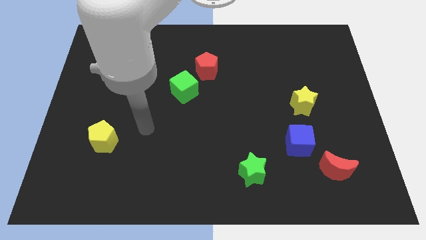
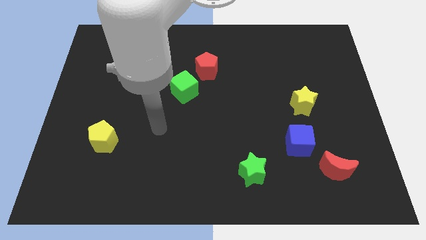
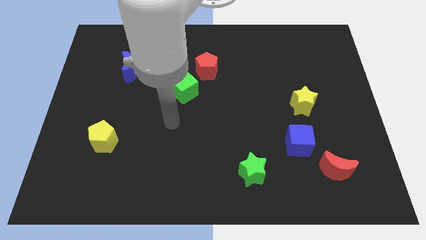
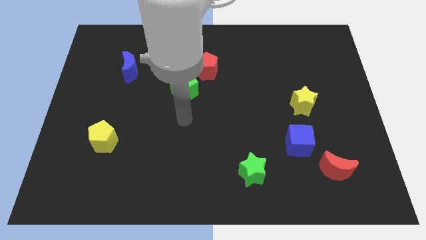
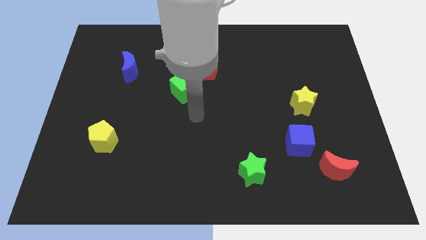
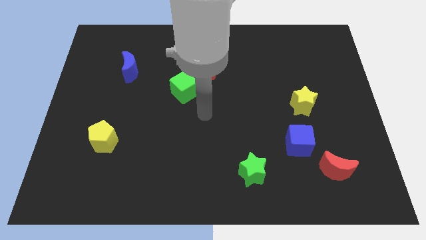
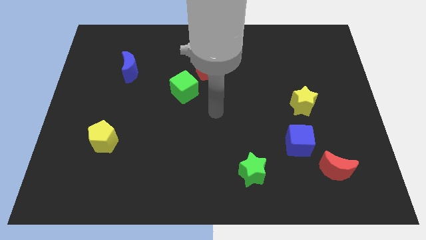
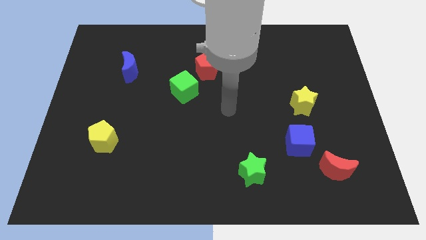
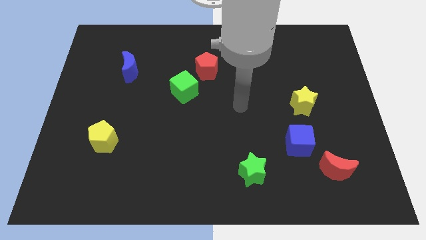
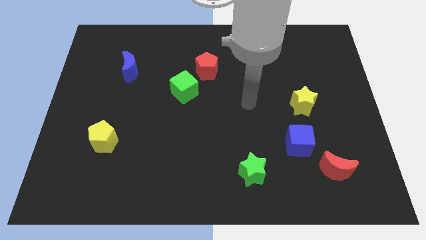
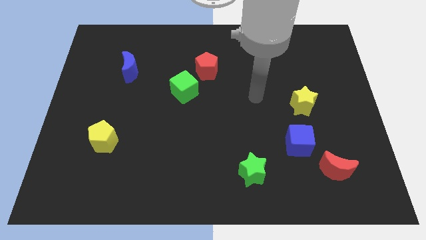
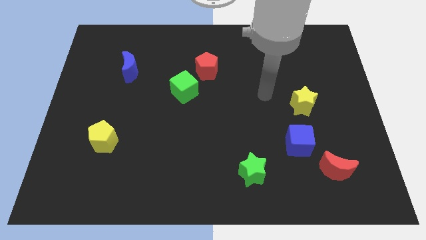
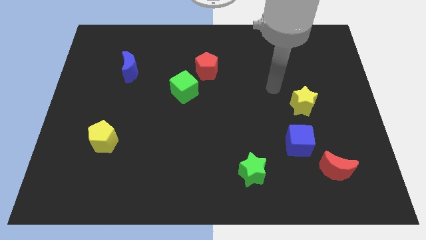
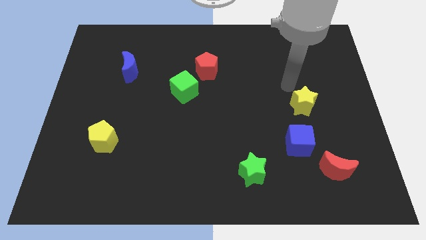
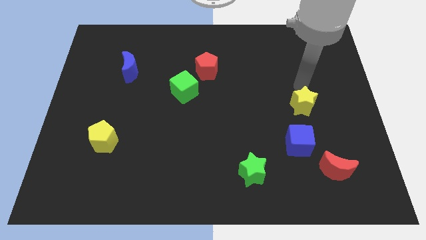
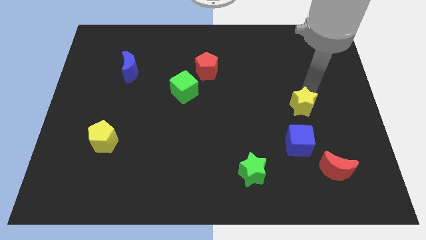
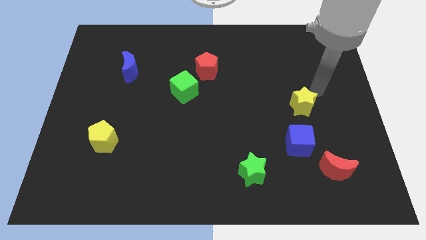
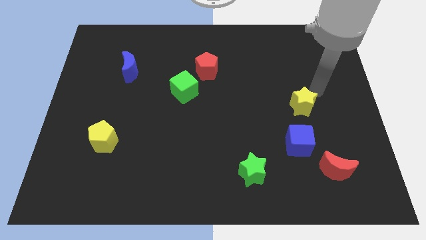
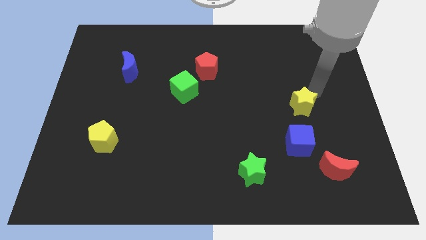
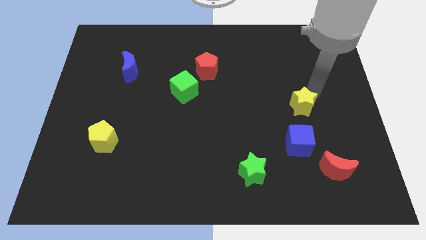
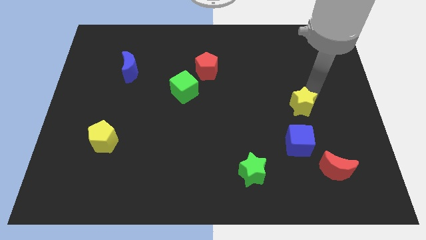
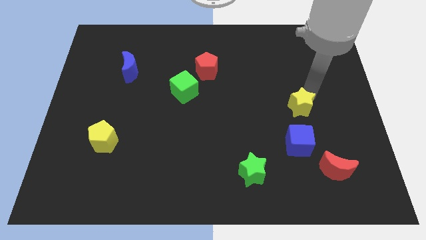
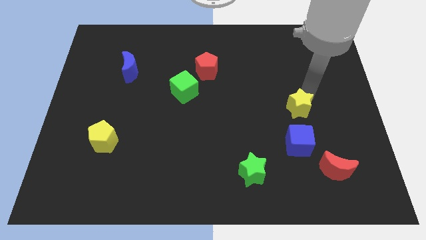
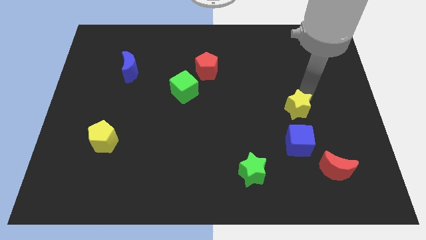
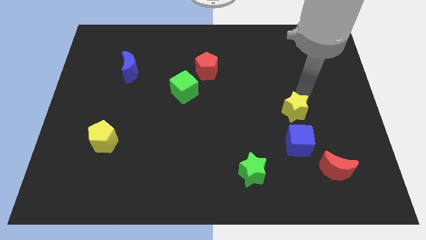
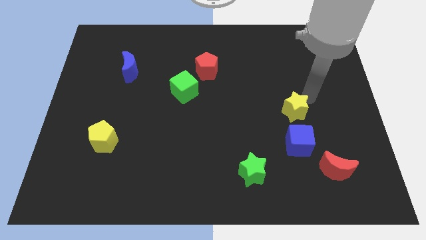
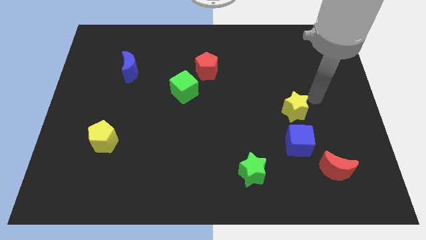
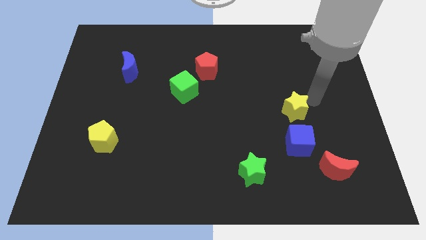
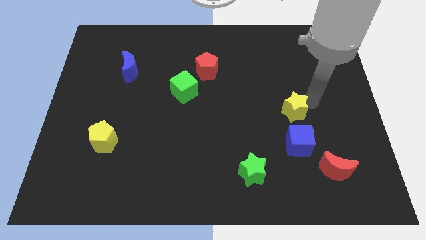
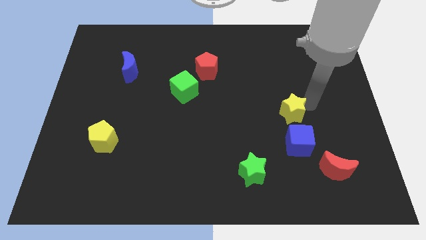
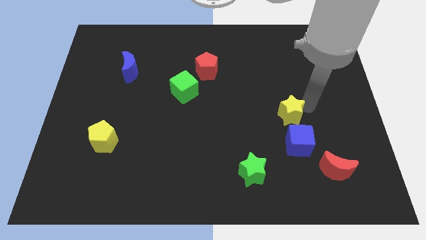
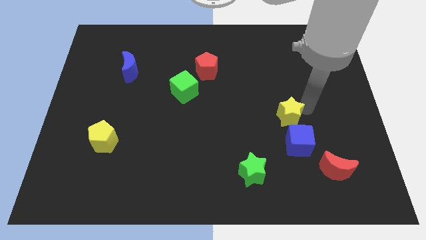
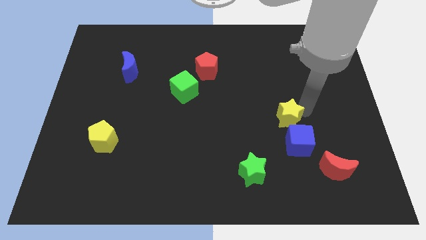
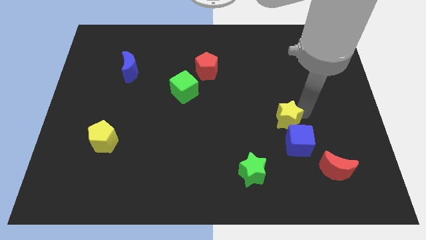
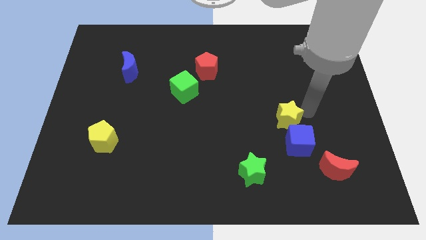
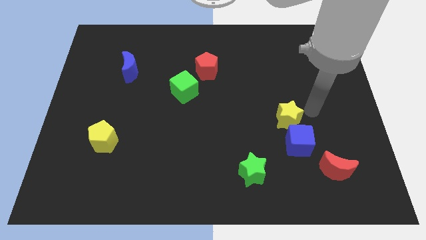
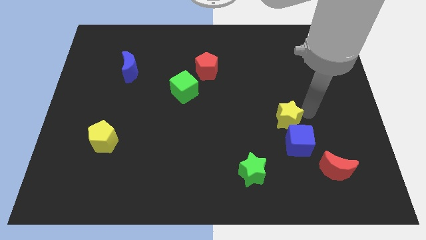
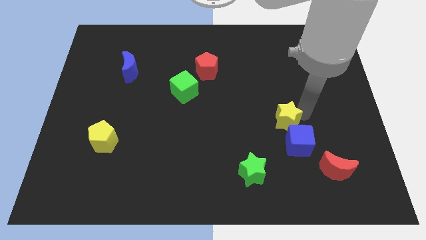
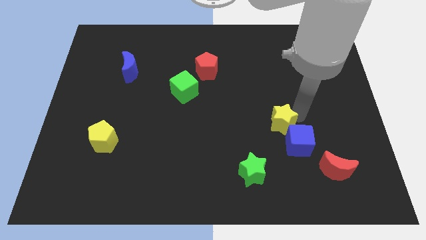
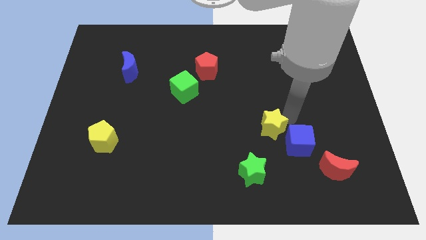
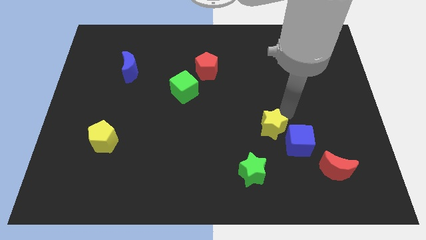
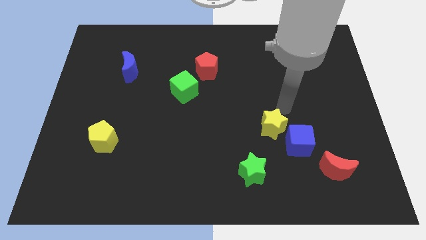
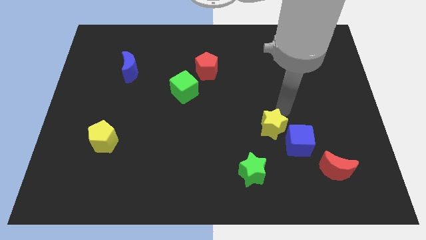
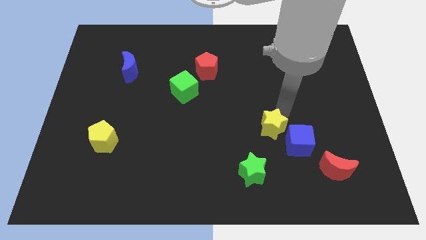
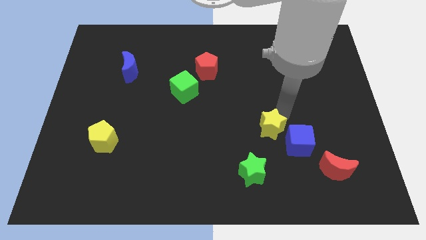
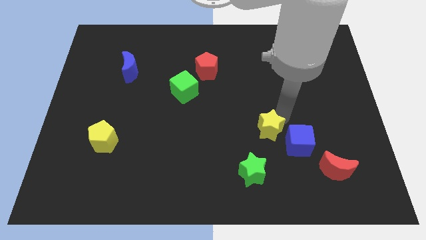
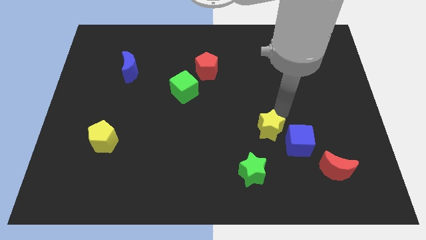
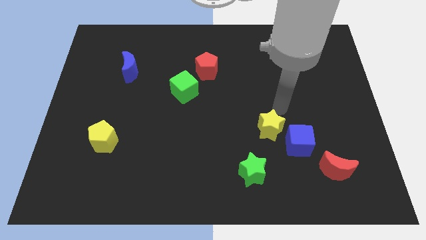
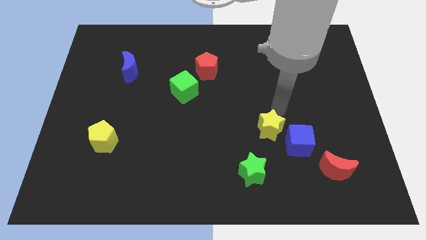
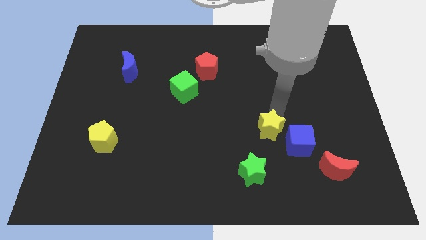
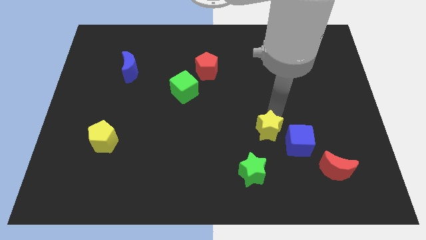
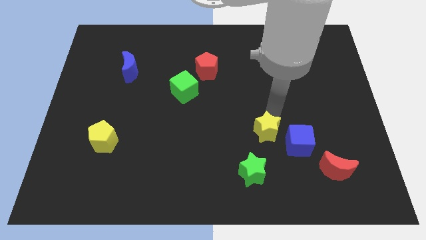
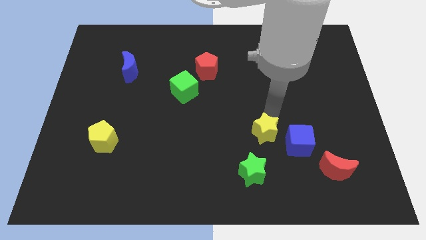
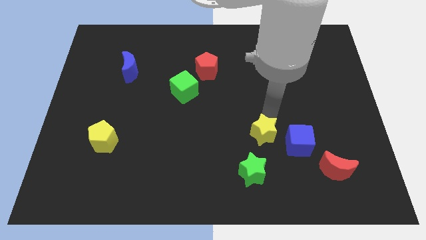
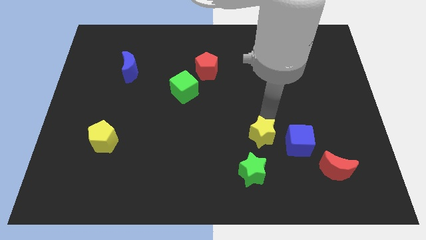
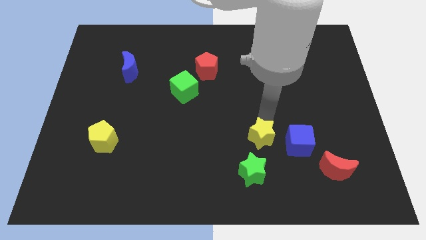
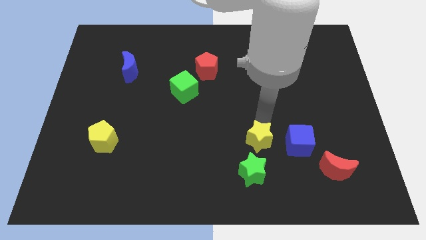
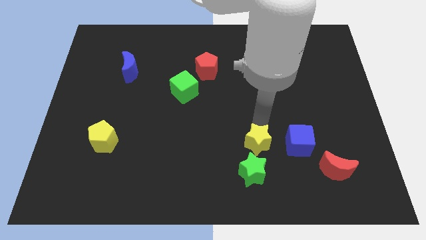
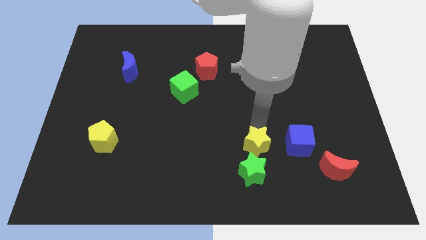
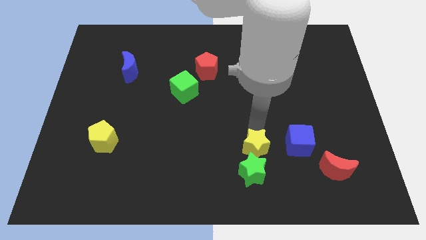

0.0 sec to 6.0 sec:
push the yellow star to the green star

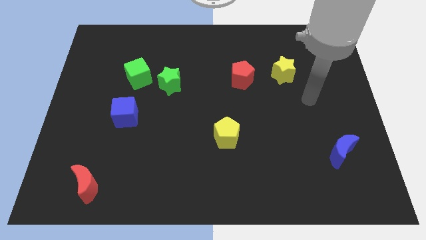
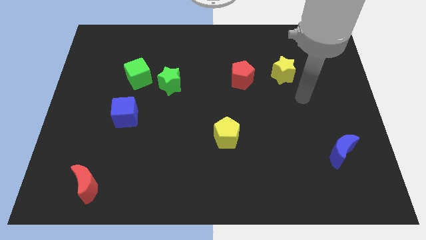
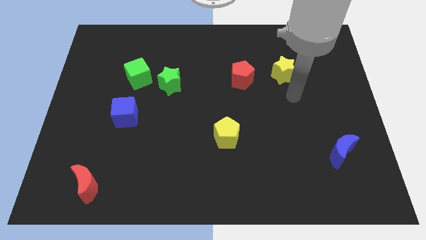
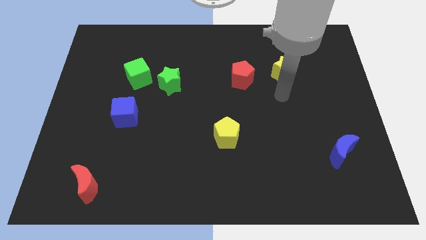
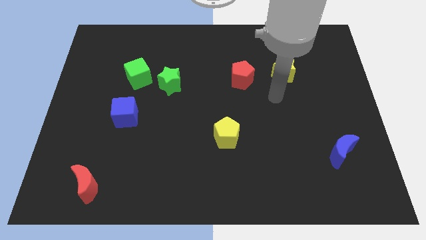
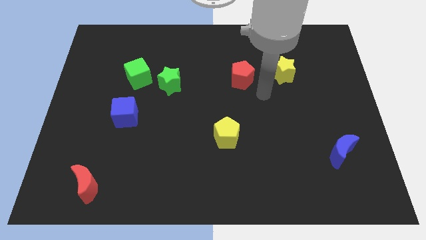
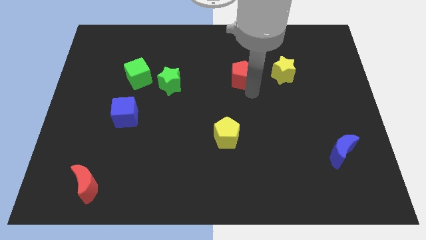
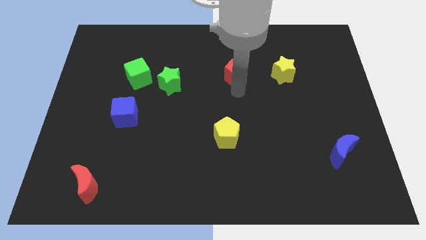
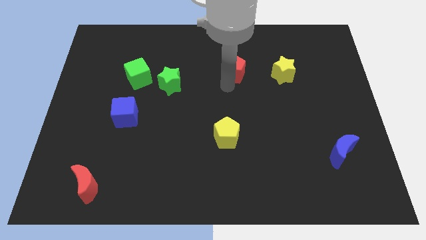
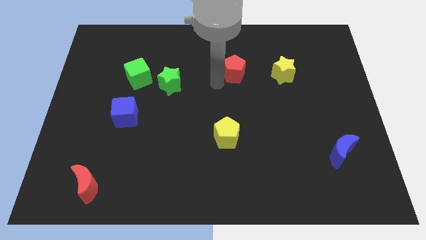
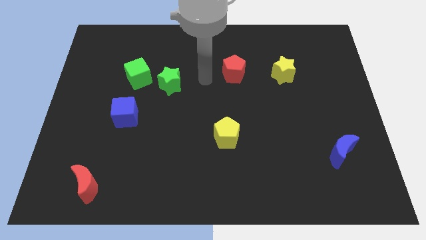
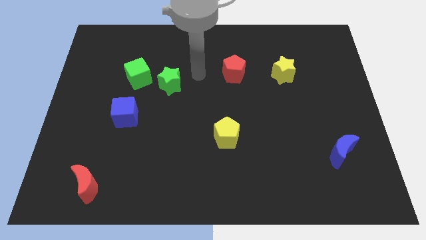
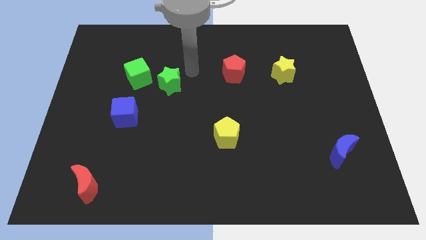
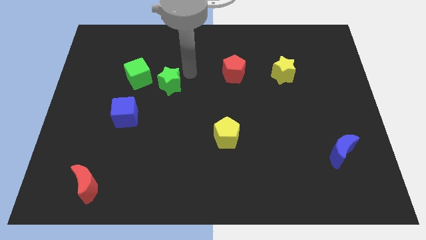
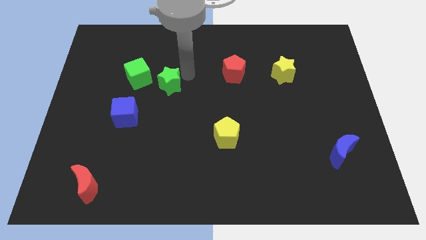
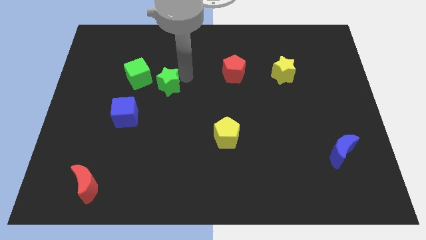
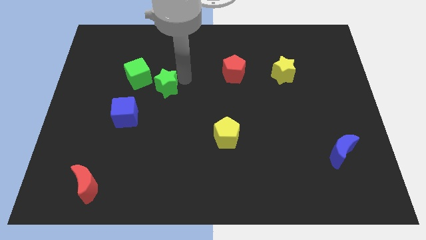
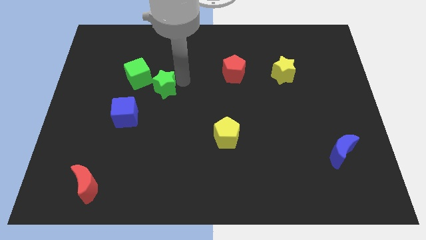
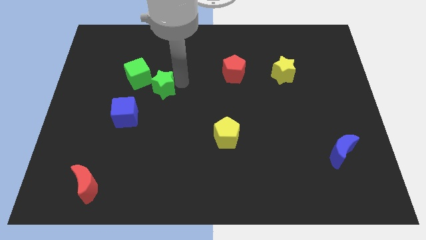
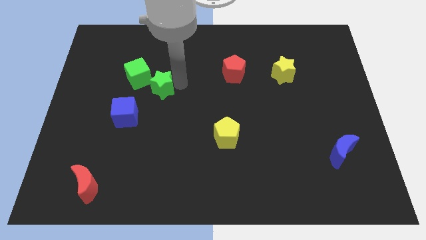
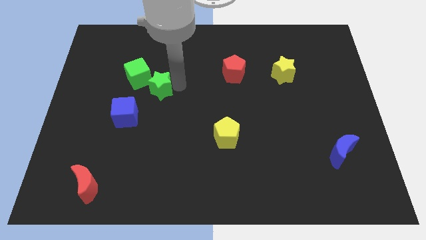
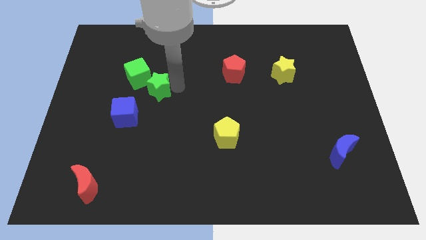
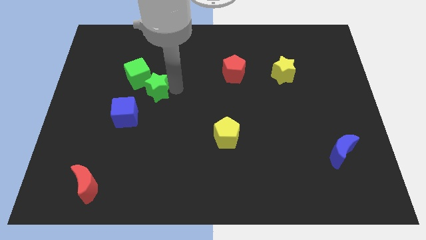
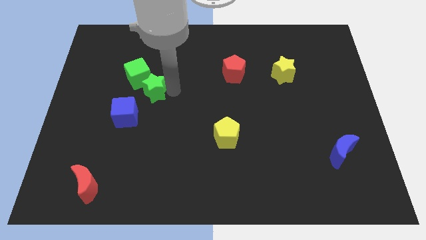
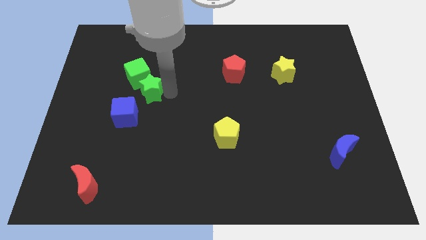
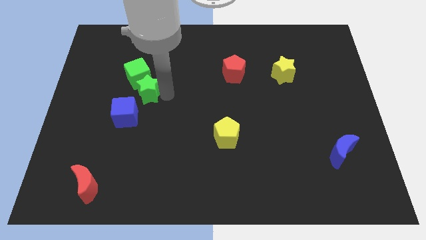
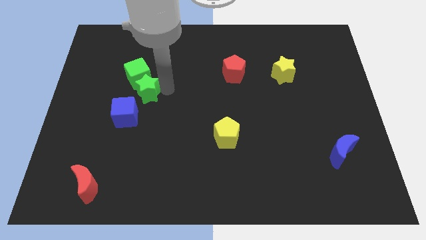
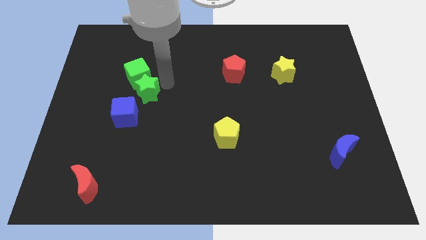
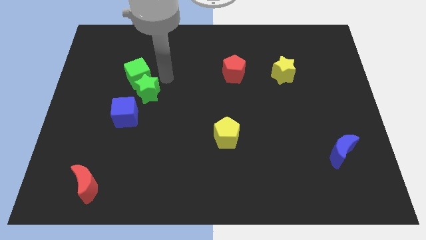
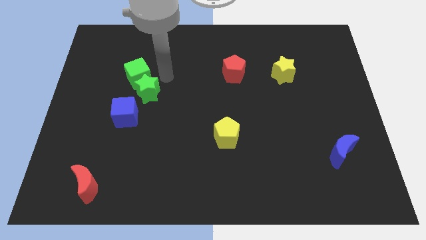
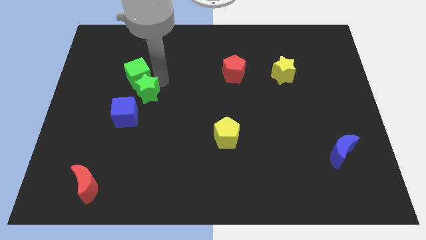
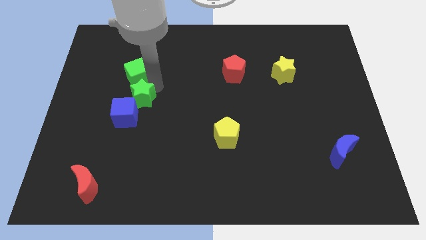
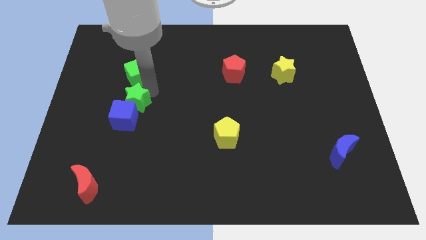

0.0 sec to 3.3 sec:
move the green star close to the blue cube
